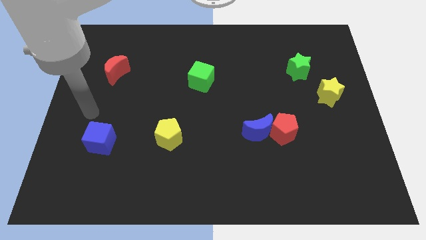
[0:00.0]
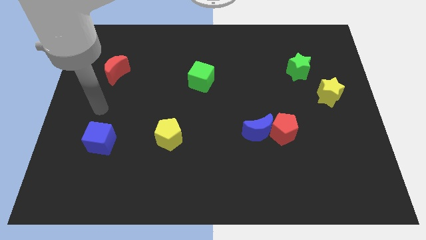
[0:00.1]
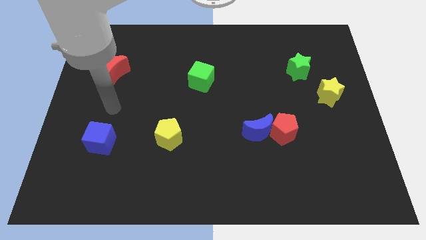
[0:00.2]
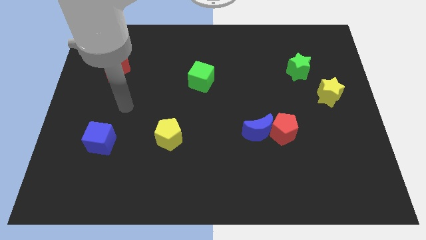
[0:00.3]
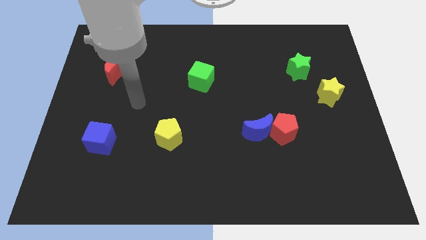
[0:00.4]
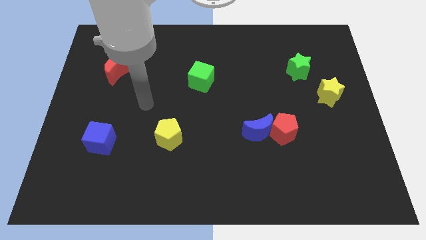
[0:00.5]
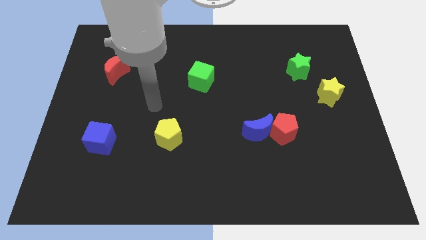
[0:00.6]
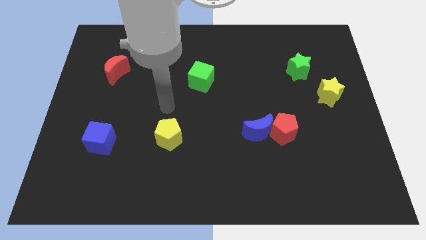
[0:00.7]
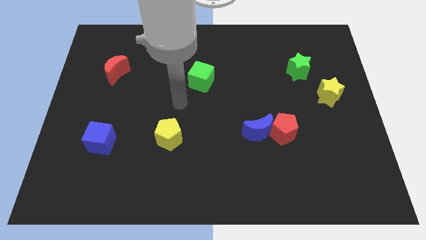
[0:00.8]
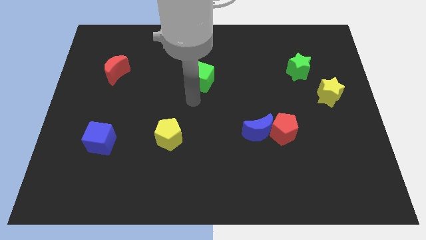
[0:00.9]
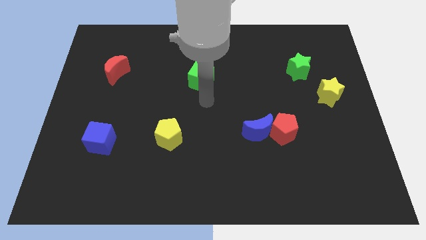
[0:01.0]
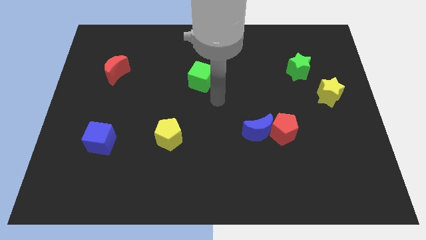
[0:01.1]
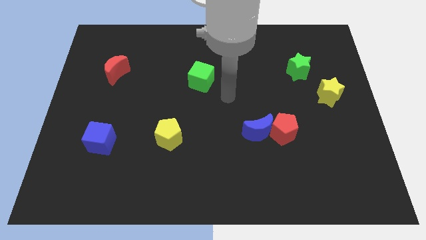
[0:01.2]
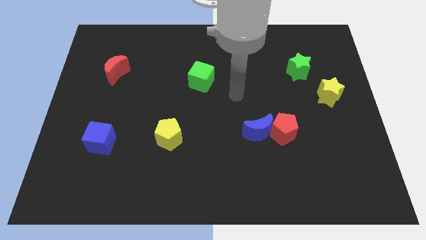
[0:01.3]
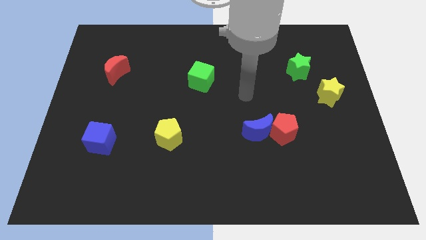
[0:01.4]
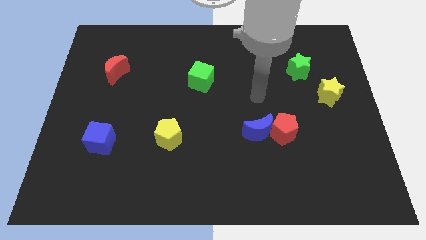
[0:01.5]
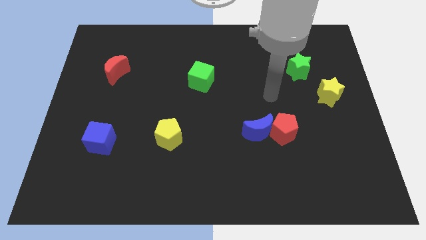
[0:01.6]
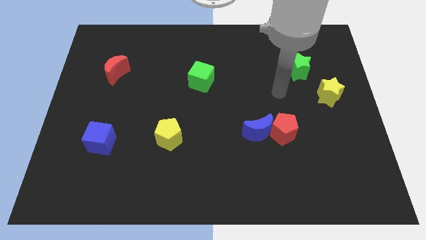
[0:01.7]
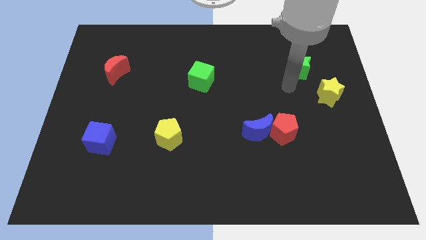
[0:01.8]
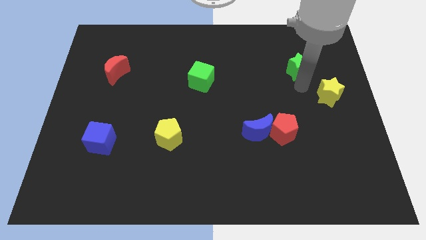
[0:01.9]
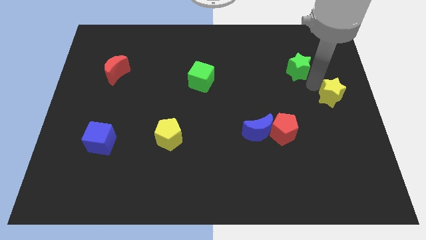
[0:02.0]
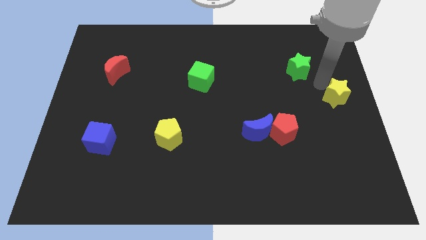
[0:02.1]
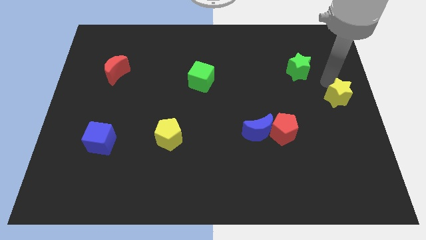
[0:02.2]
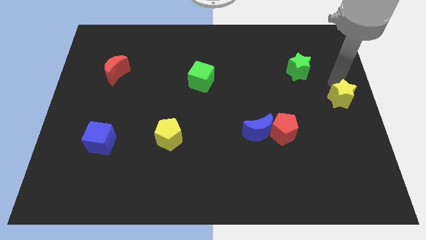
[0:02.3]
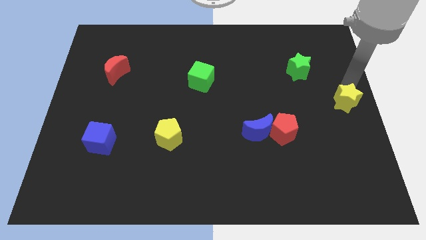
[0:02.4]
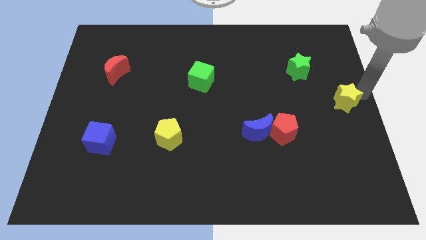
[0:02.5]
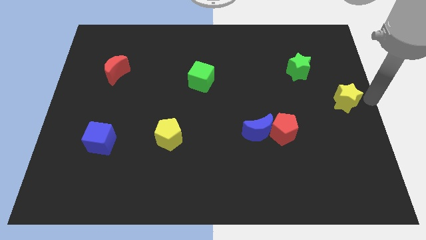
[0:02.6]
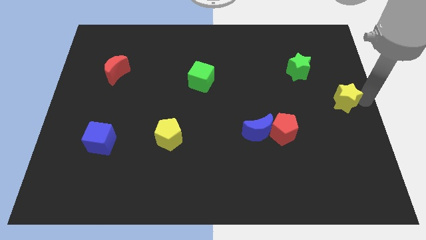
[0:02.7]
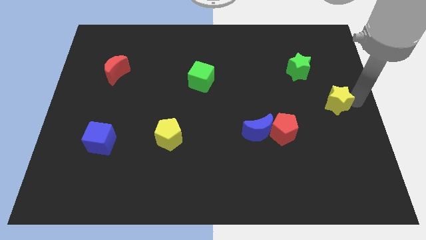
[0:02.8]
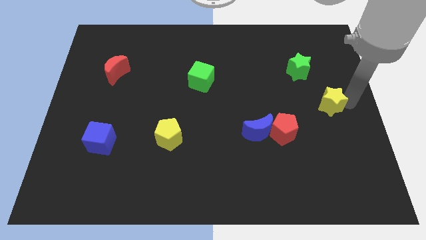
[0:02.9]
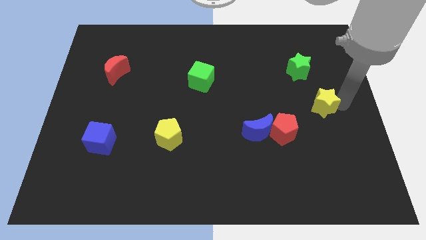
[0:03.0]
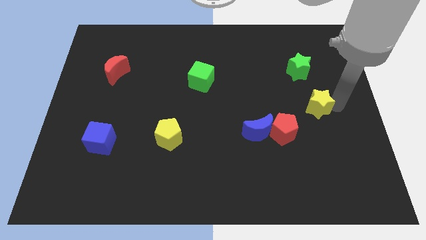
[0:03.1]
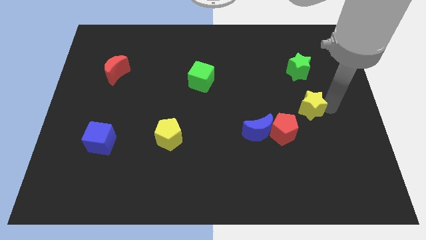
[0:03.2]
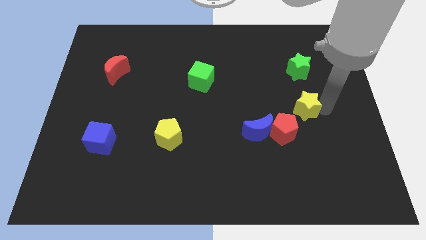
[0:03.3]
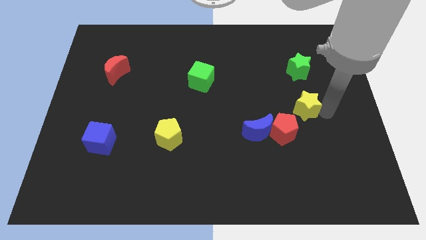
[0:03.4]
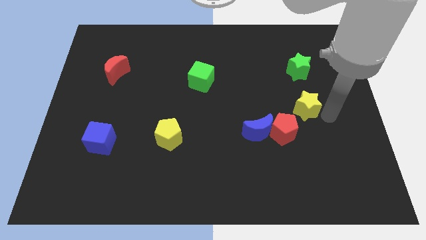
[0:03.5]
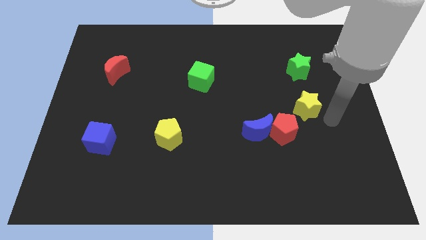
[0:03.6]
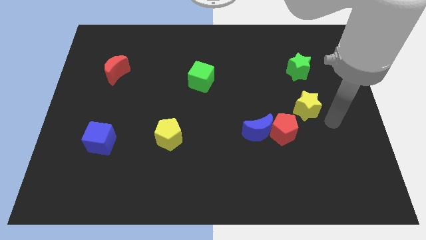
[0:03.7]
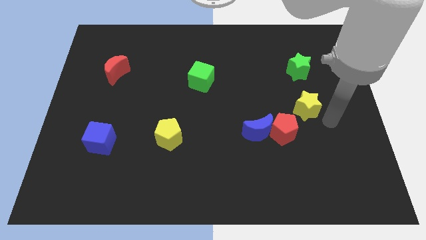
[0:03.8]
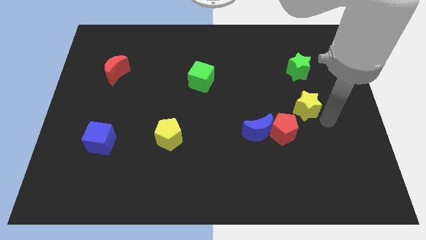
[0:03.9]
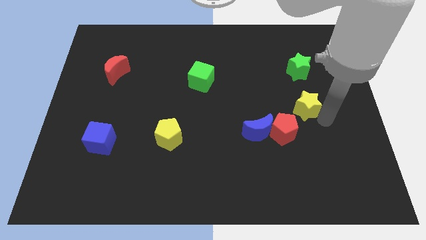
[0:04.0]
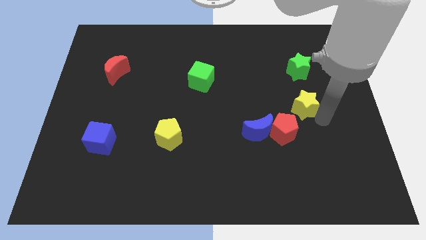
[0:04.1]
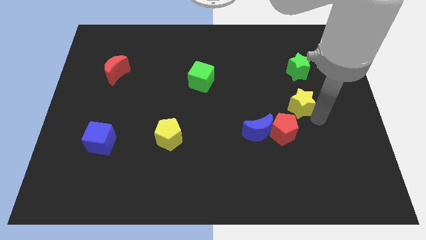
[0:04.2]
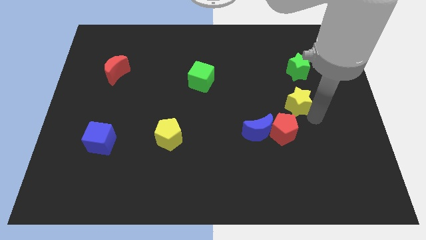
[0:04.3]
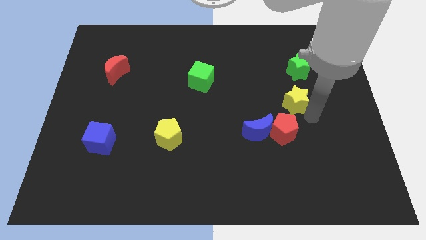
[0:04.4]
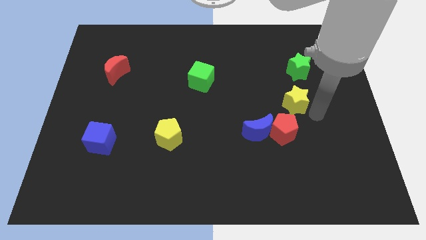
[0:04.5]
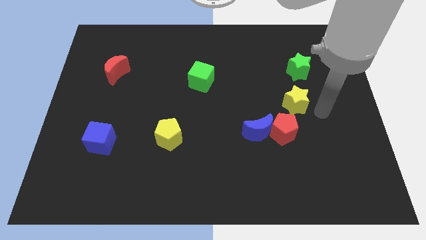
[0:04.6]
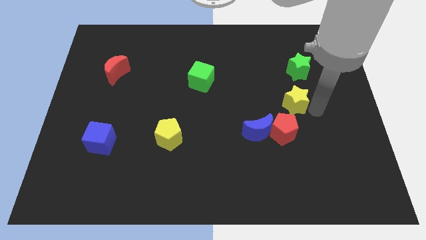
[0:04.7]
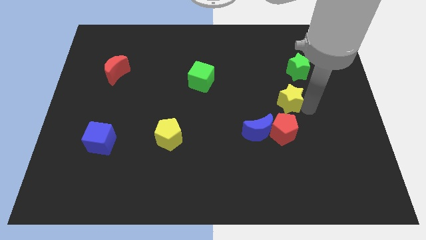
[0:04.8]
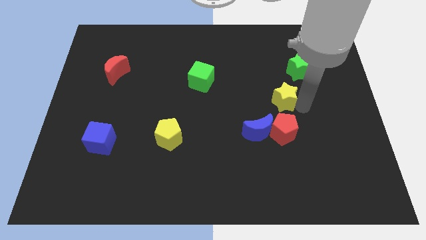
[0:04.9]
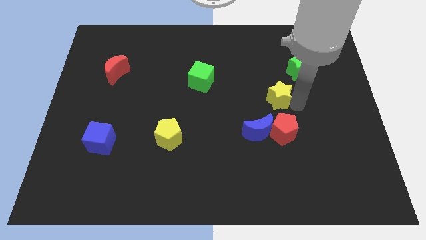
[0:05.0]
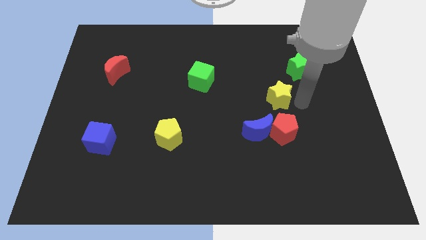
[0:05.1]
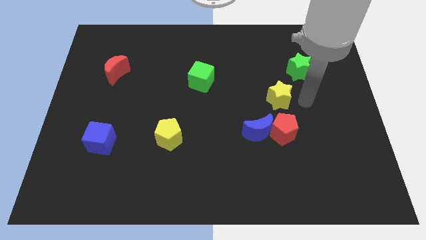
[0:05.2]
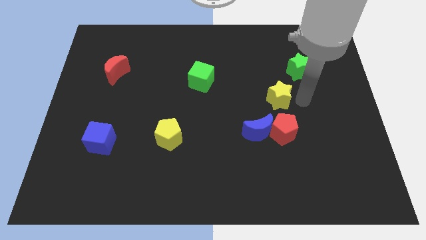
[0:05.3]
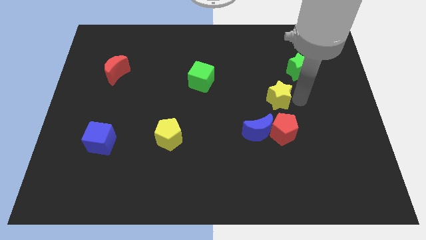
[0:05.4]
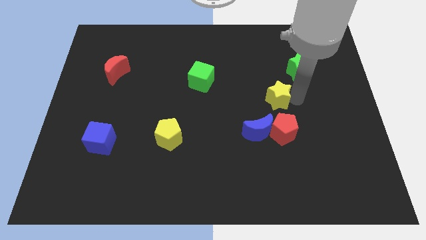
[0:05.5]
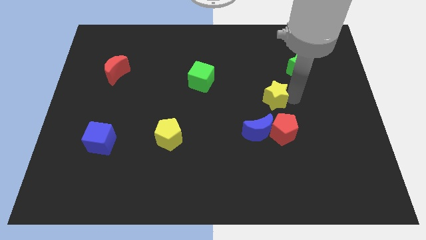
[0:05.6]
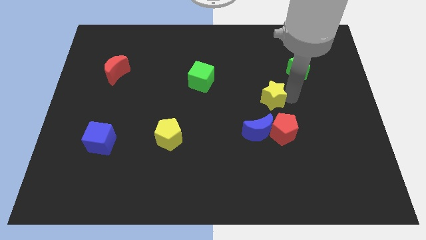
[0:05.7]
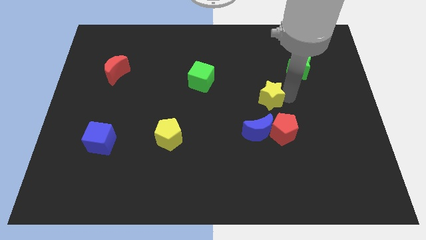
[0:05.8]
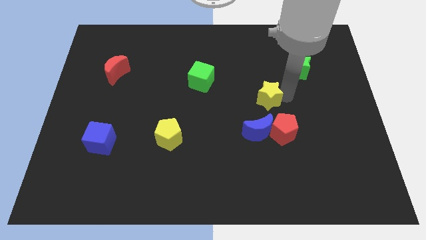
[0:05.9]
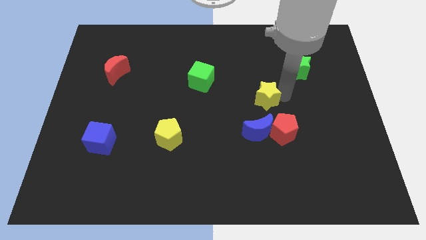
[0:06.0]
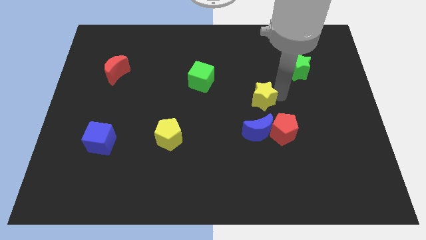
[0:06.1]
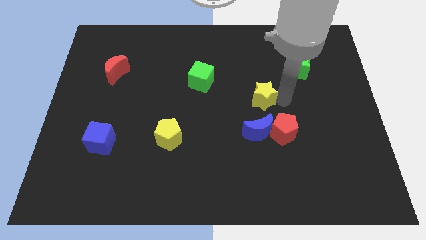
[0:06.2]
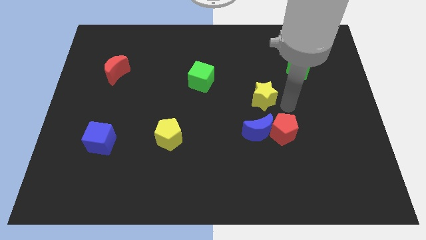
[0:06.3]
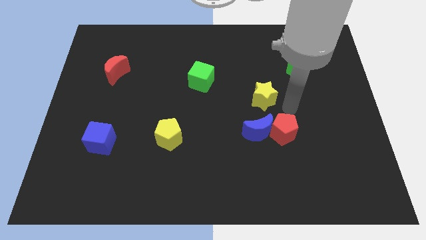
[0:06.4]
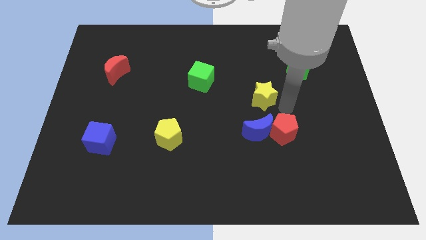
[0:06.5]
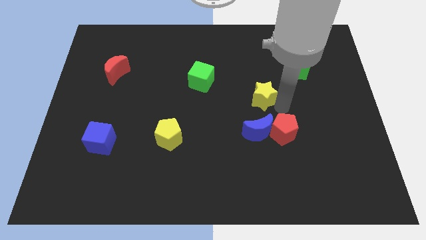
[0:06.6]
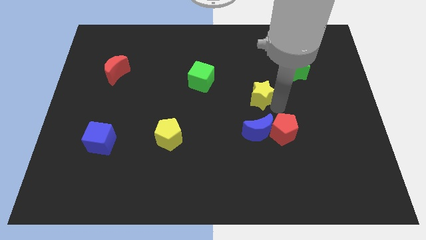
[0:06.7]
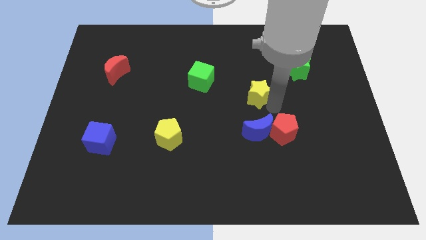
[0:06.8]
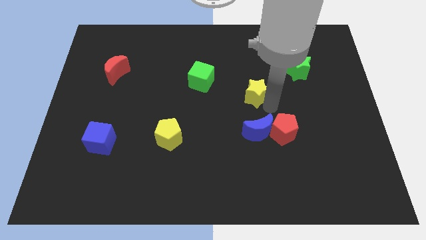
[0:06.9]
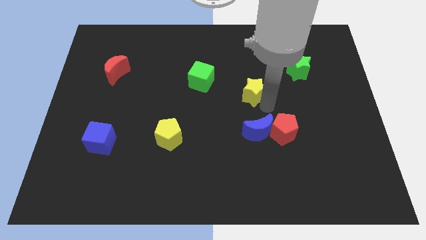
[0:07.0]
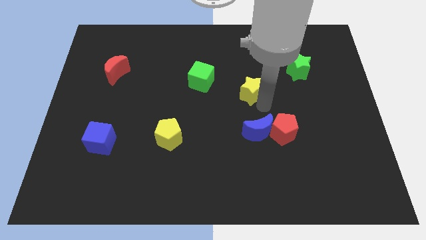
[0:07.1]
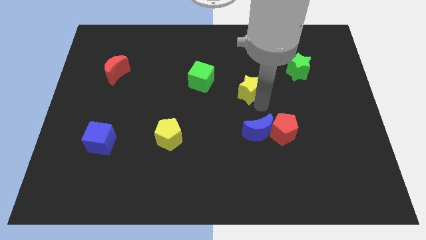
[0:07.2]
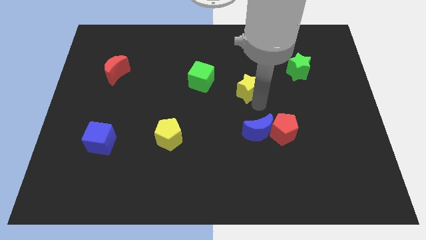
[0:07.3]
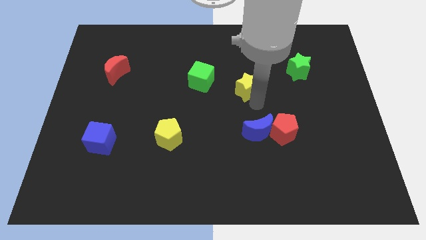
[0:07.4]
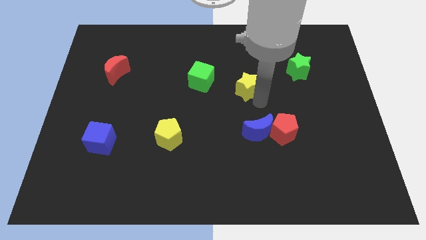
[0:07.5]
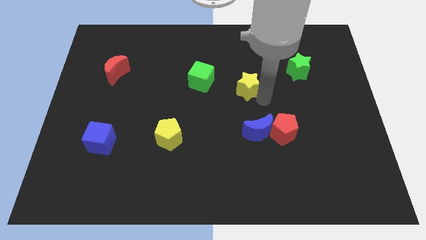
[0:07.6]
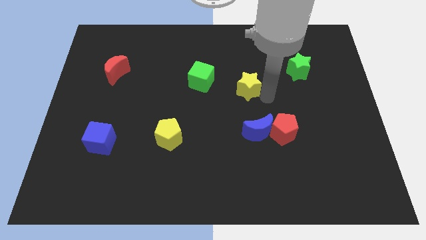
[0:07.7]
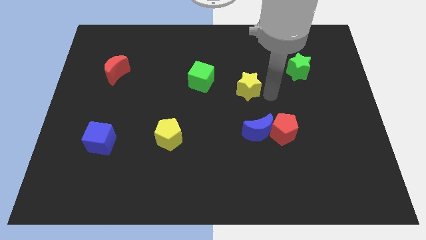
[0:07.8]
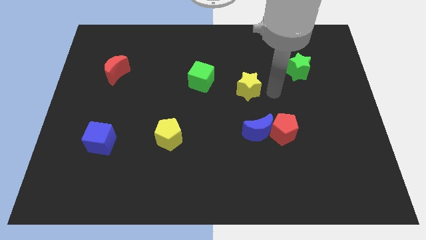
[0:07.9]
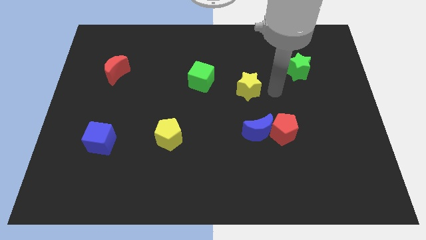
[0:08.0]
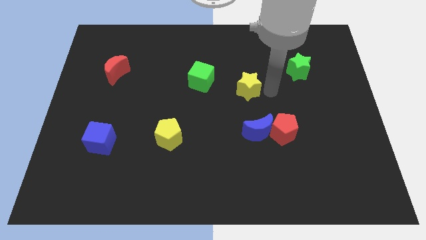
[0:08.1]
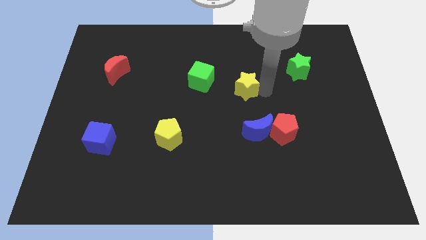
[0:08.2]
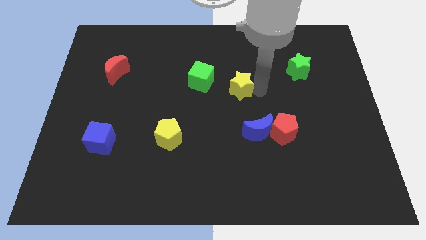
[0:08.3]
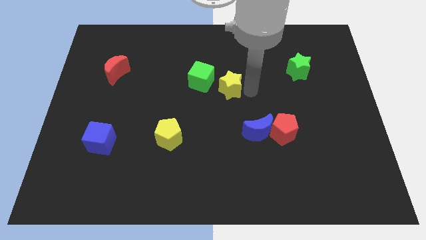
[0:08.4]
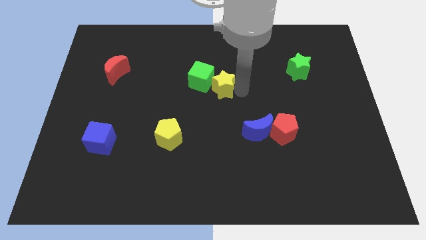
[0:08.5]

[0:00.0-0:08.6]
move the yellow star towards the green cube
